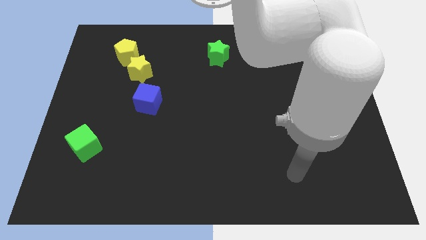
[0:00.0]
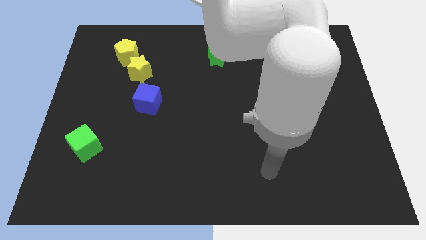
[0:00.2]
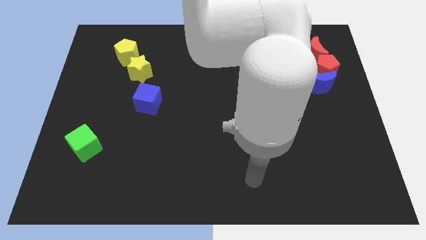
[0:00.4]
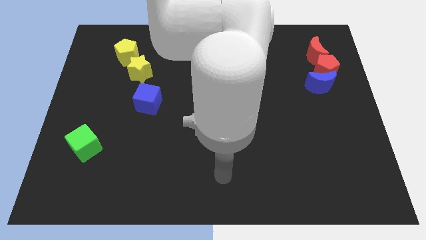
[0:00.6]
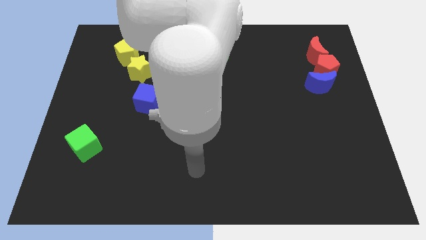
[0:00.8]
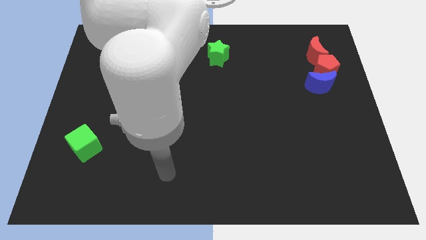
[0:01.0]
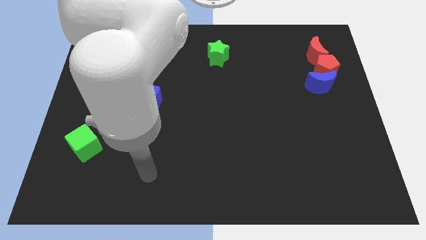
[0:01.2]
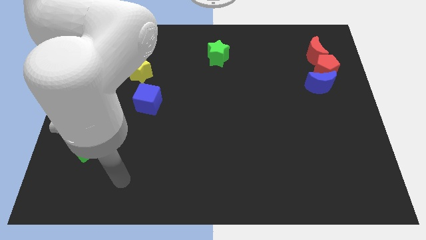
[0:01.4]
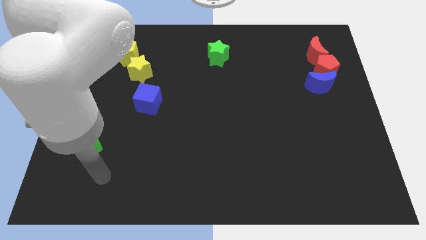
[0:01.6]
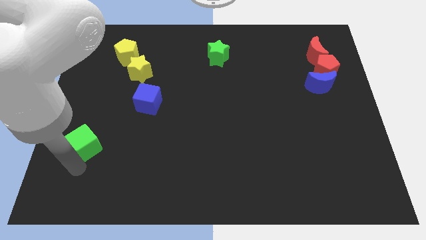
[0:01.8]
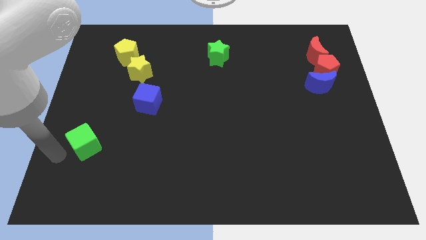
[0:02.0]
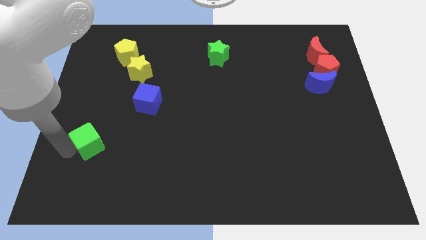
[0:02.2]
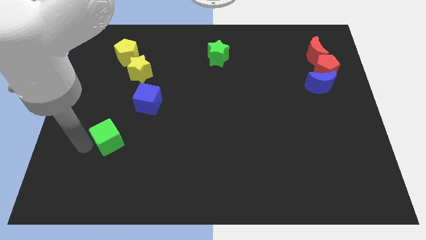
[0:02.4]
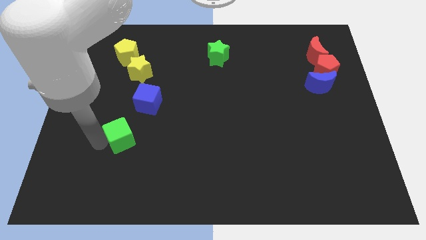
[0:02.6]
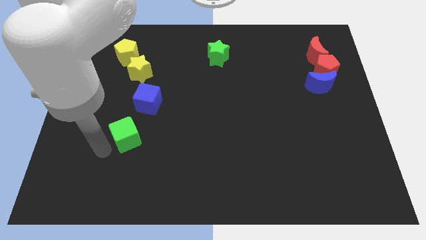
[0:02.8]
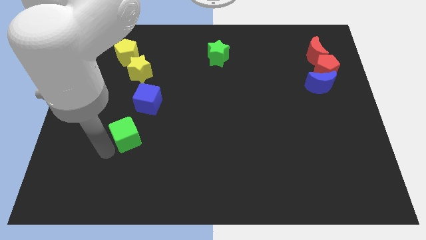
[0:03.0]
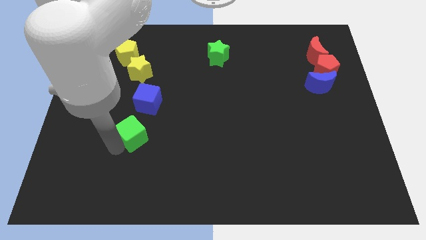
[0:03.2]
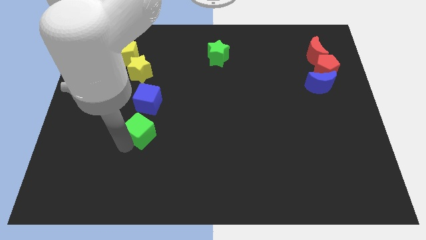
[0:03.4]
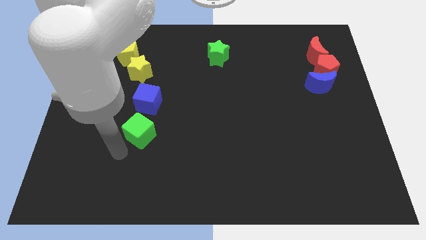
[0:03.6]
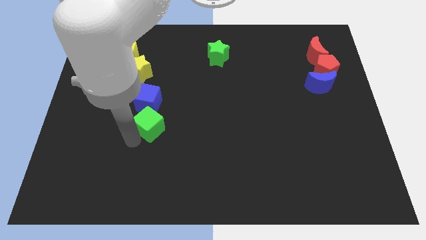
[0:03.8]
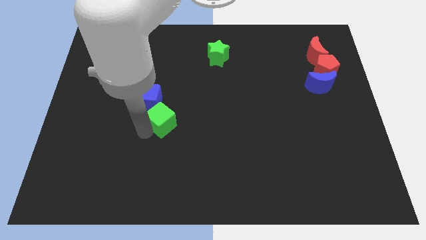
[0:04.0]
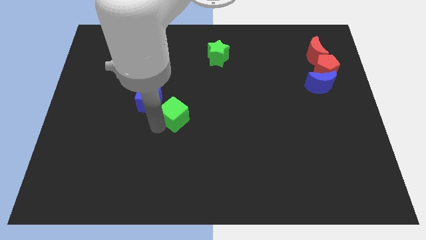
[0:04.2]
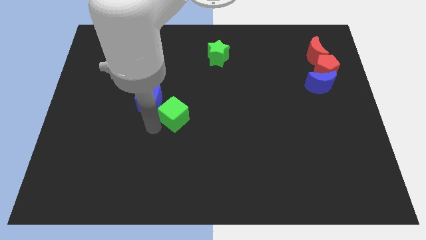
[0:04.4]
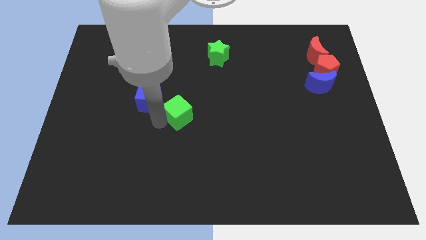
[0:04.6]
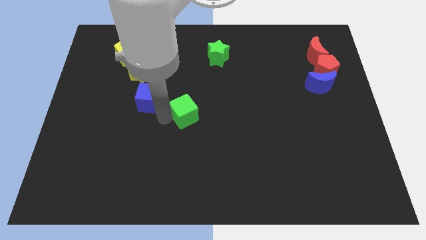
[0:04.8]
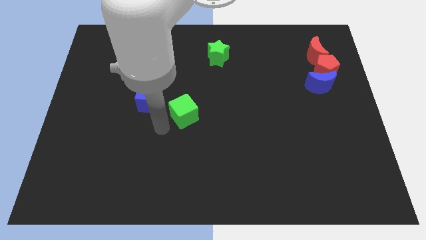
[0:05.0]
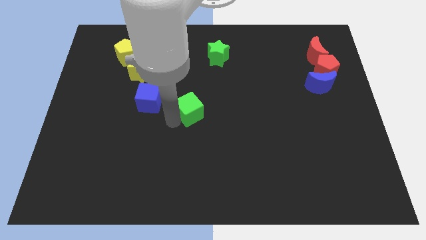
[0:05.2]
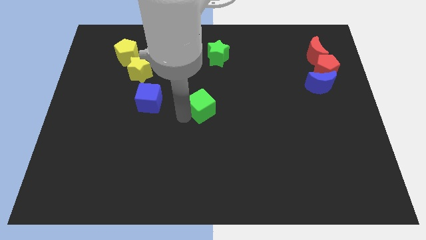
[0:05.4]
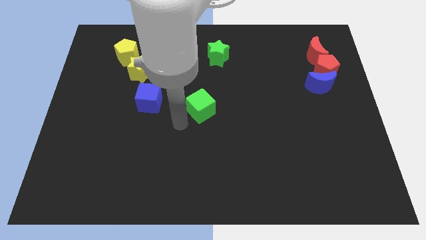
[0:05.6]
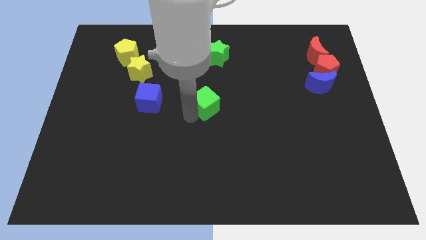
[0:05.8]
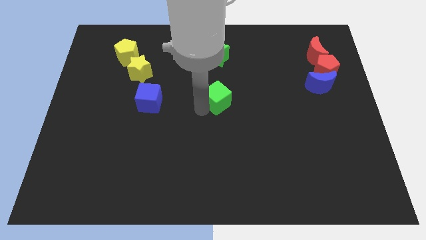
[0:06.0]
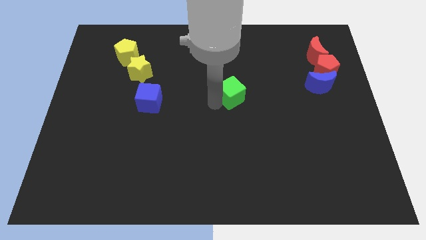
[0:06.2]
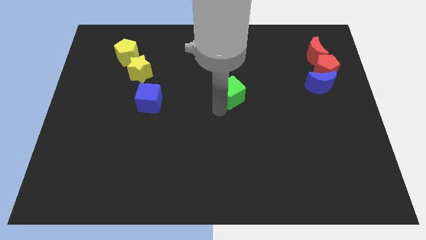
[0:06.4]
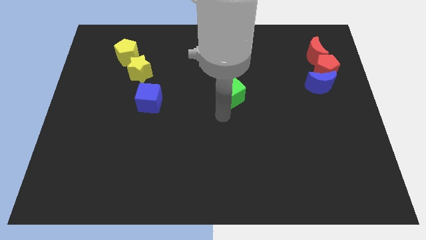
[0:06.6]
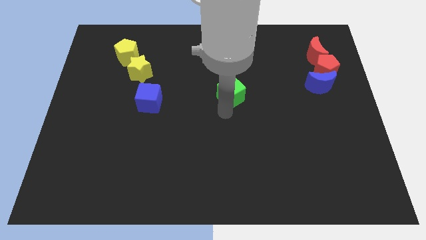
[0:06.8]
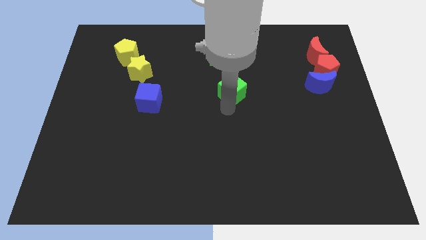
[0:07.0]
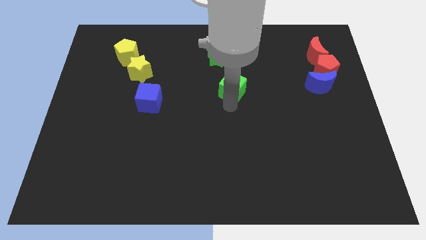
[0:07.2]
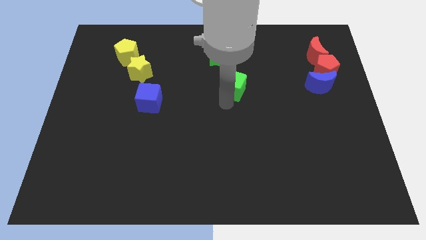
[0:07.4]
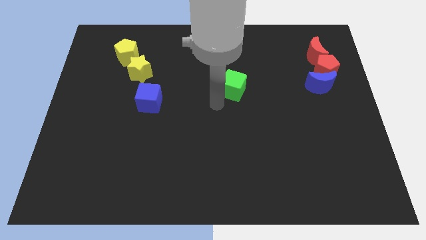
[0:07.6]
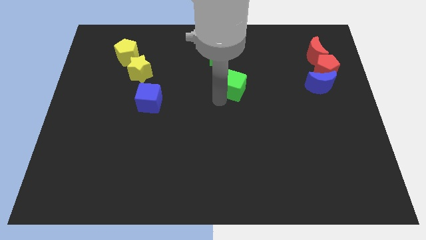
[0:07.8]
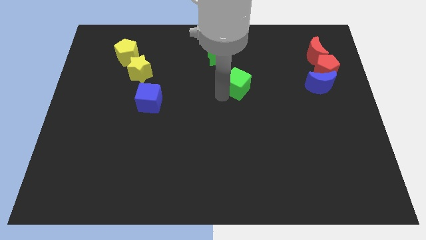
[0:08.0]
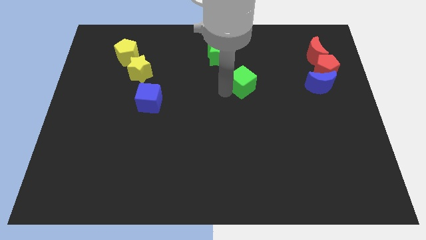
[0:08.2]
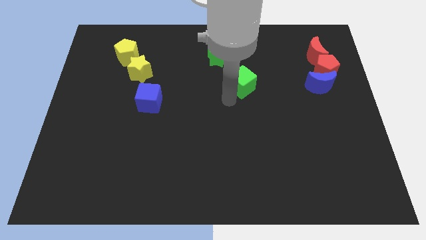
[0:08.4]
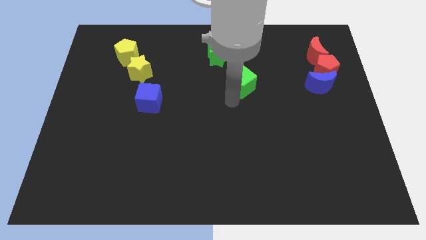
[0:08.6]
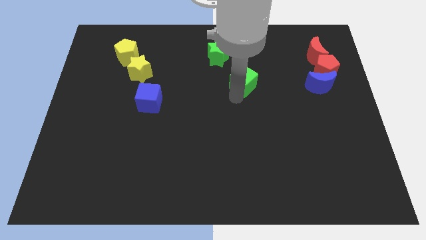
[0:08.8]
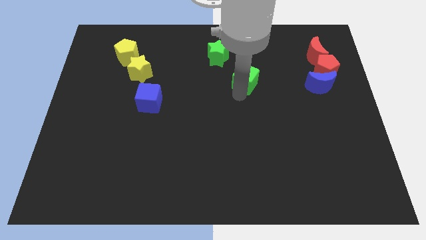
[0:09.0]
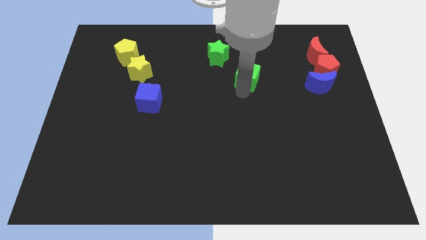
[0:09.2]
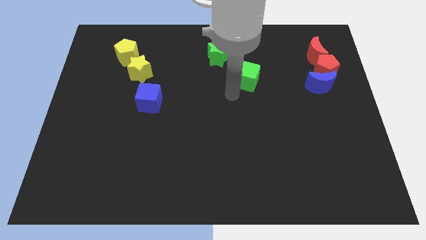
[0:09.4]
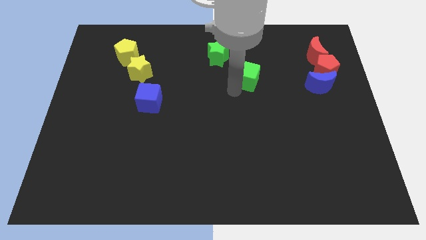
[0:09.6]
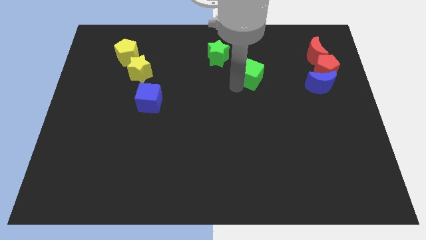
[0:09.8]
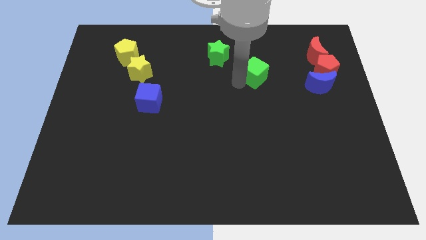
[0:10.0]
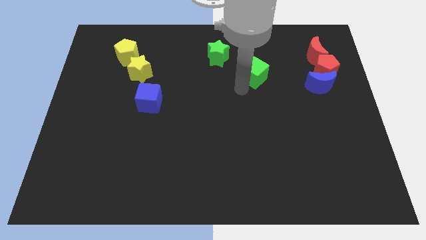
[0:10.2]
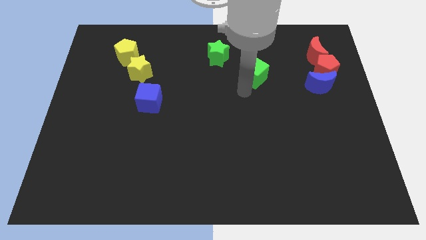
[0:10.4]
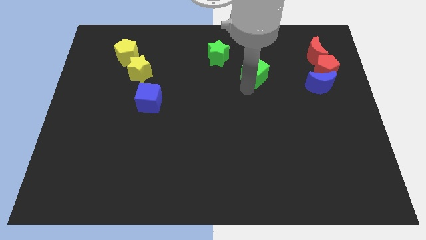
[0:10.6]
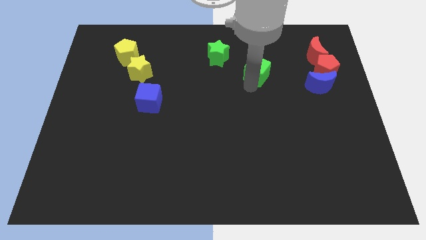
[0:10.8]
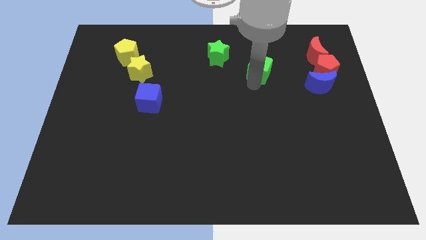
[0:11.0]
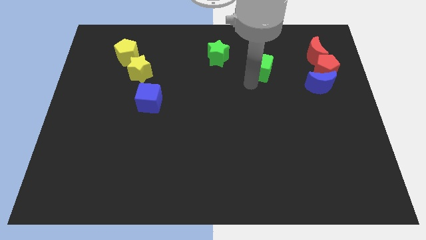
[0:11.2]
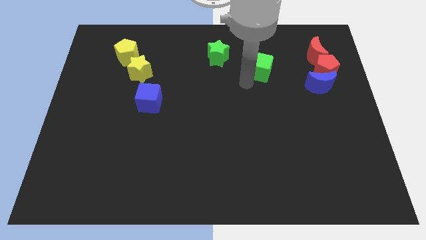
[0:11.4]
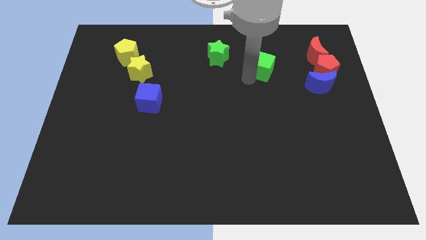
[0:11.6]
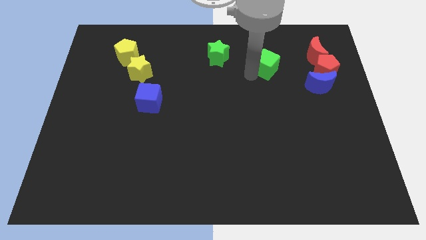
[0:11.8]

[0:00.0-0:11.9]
put the green cube left of the red moon

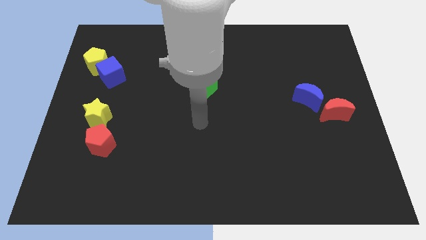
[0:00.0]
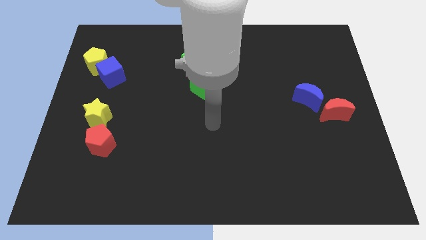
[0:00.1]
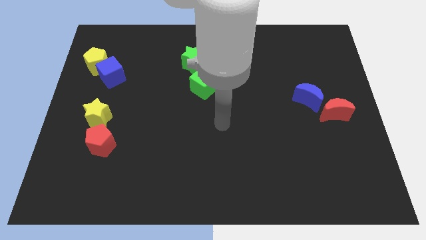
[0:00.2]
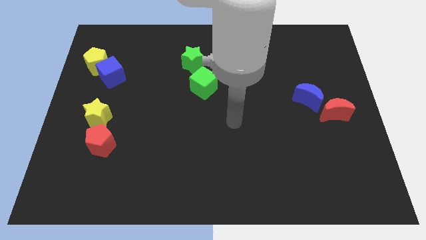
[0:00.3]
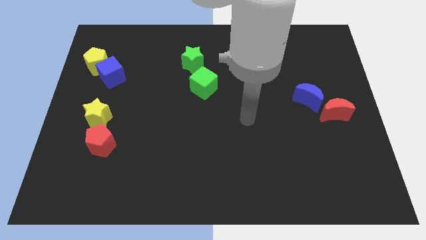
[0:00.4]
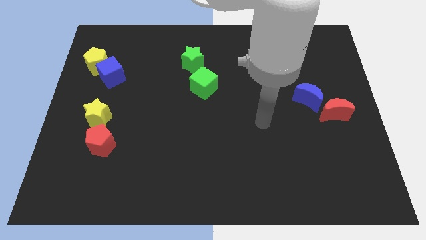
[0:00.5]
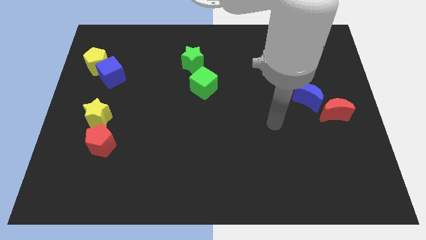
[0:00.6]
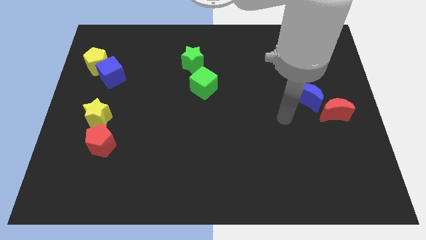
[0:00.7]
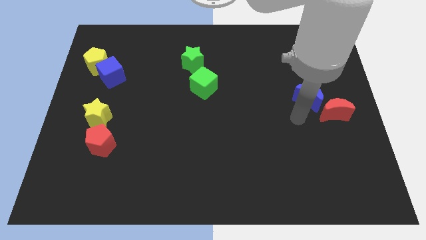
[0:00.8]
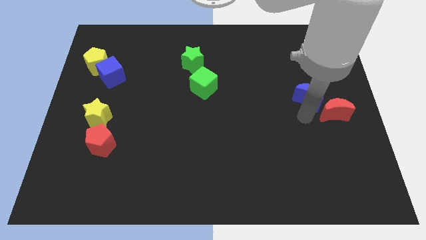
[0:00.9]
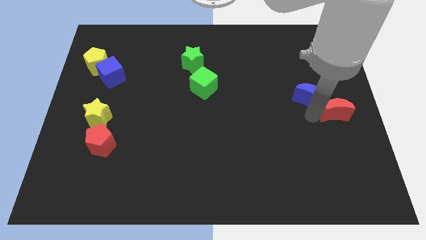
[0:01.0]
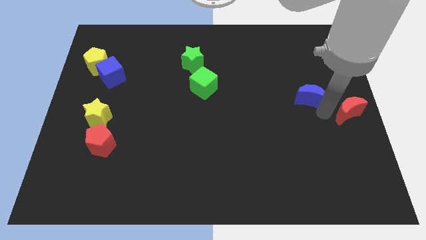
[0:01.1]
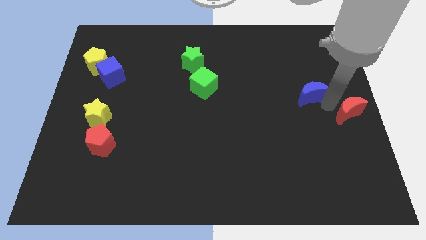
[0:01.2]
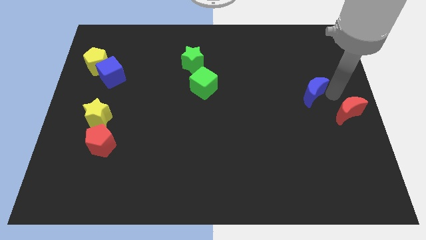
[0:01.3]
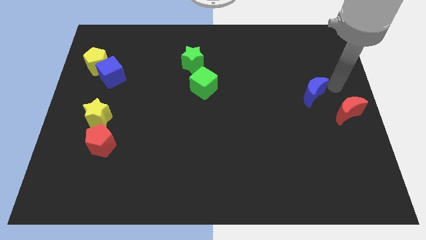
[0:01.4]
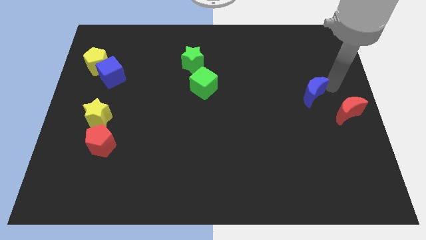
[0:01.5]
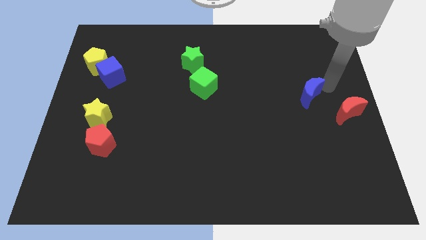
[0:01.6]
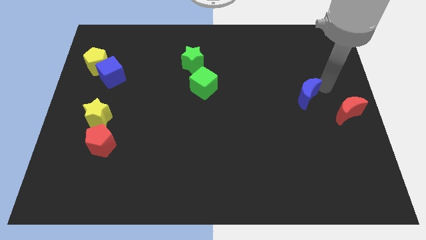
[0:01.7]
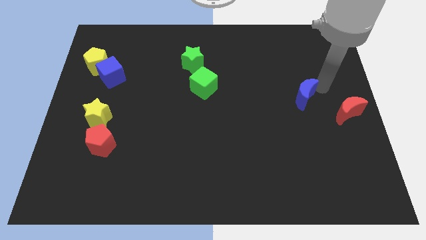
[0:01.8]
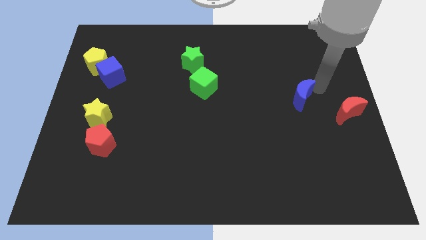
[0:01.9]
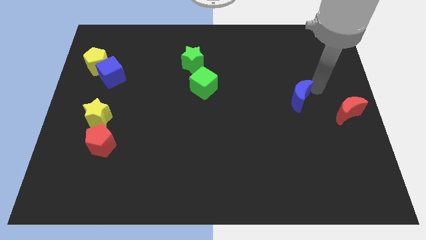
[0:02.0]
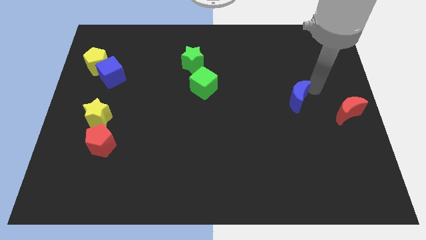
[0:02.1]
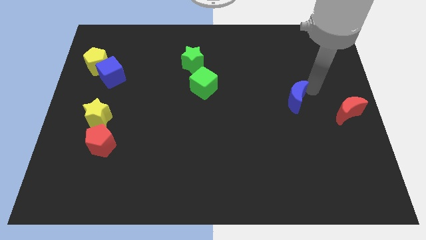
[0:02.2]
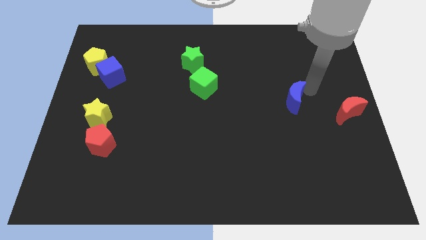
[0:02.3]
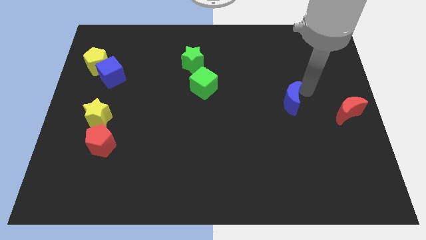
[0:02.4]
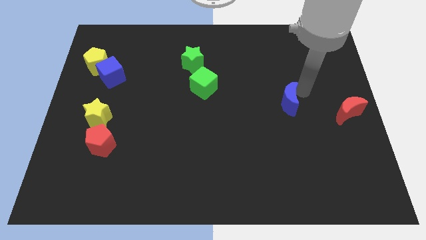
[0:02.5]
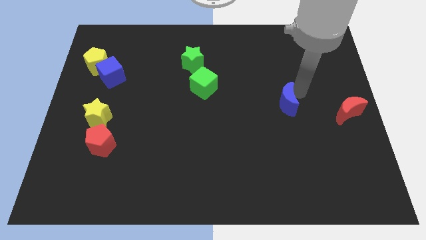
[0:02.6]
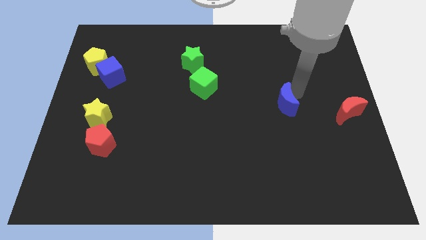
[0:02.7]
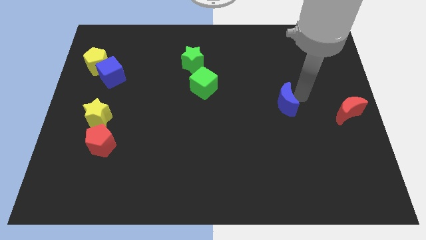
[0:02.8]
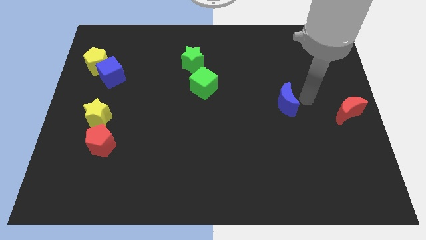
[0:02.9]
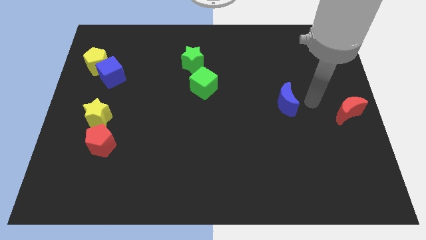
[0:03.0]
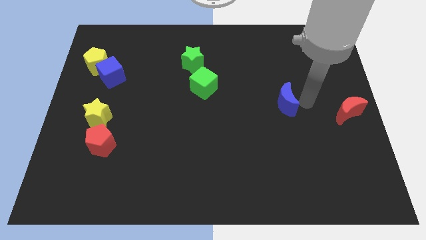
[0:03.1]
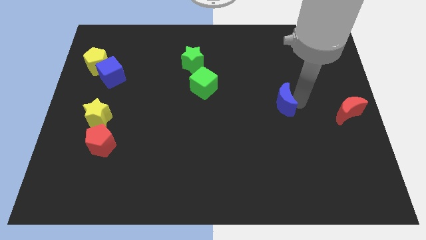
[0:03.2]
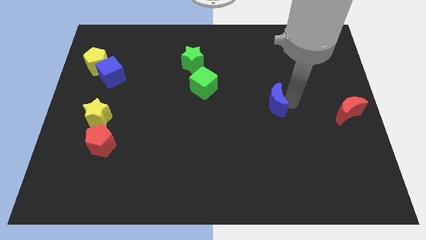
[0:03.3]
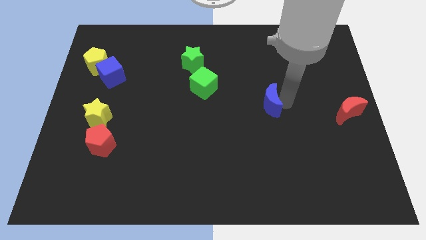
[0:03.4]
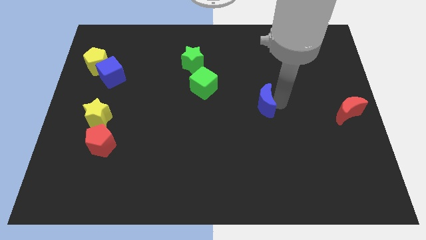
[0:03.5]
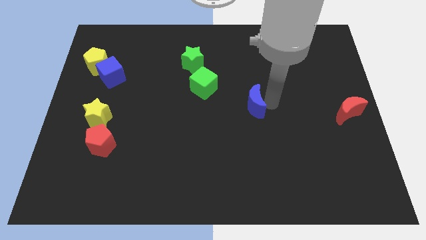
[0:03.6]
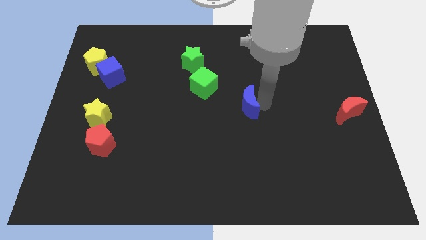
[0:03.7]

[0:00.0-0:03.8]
push the blue moon to the bottom right of the green cube
